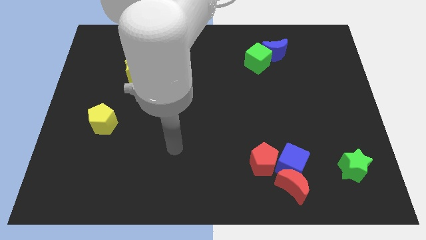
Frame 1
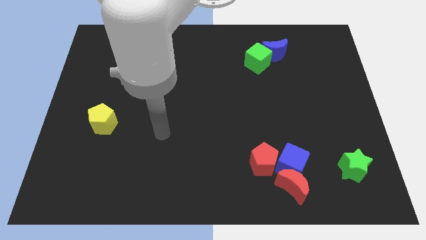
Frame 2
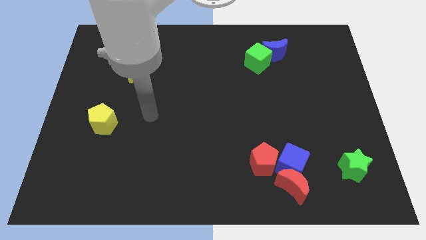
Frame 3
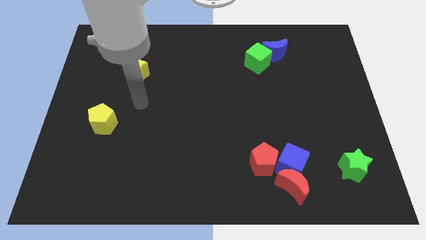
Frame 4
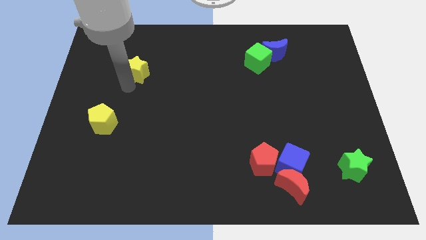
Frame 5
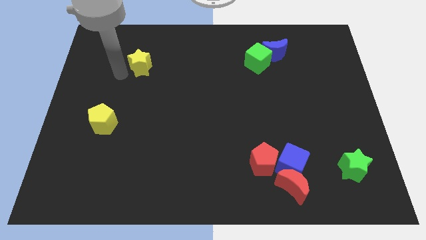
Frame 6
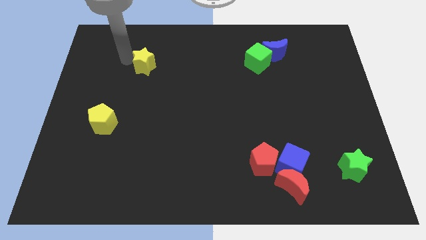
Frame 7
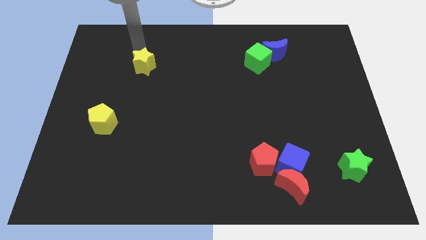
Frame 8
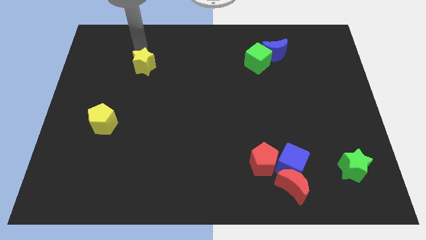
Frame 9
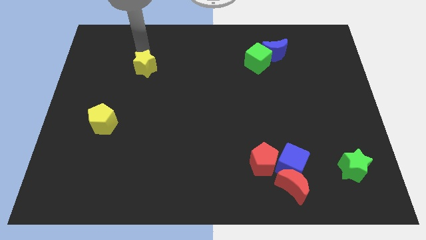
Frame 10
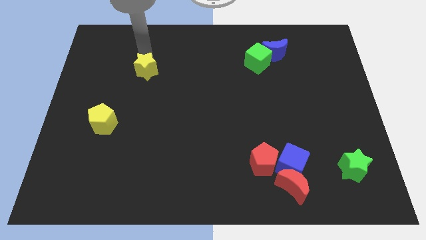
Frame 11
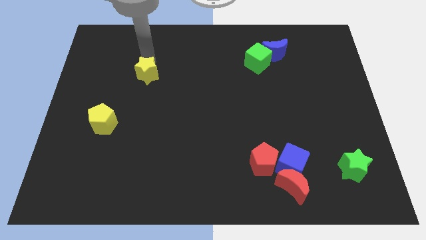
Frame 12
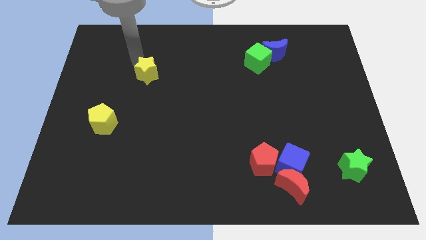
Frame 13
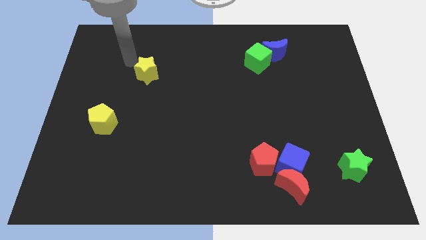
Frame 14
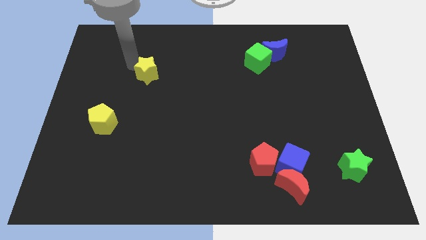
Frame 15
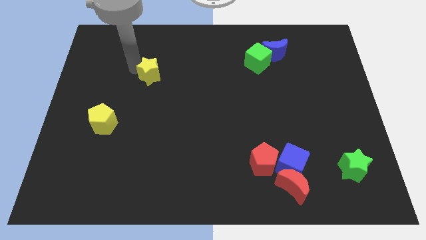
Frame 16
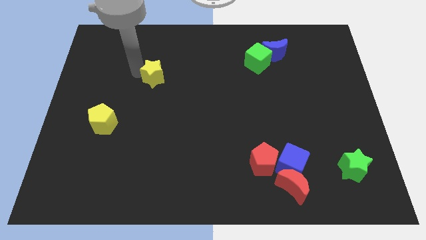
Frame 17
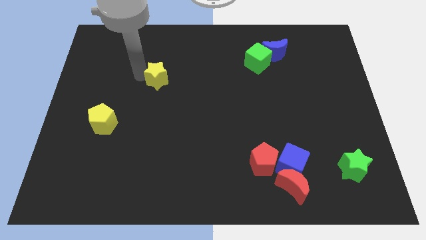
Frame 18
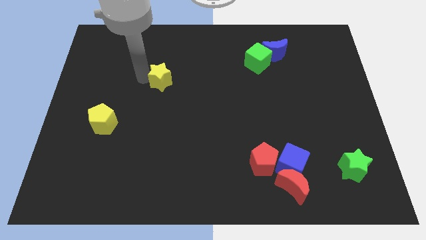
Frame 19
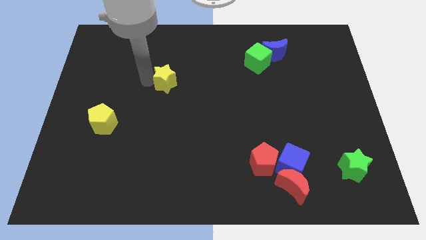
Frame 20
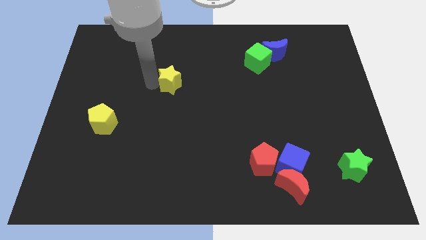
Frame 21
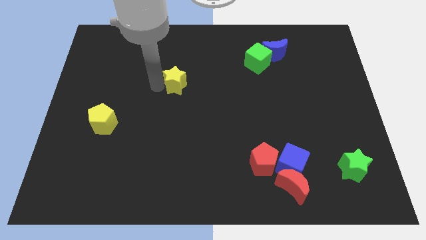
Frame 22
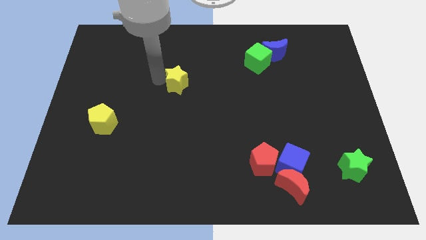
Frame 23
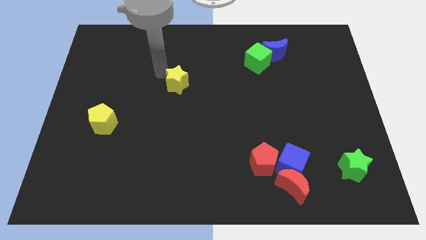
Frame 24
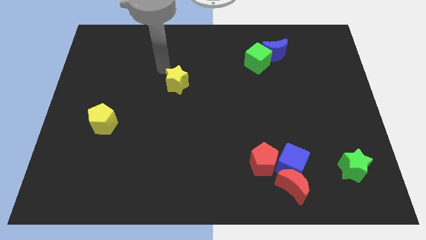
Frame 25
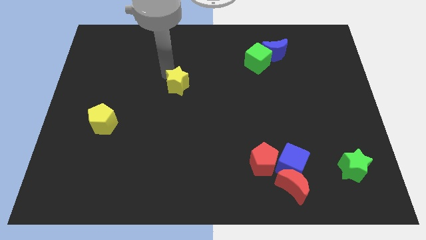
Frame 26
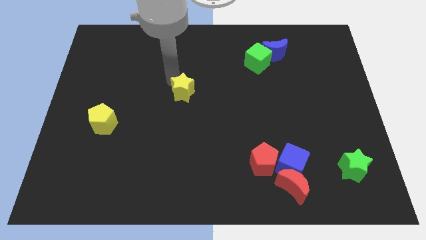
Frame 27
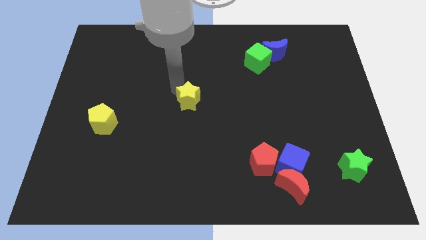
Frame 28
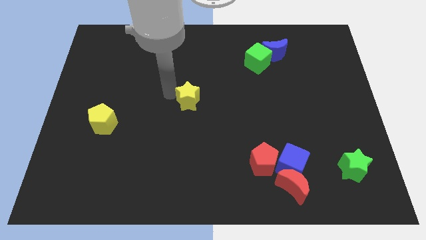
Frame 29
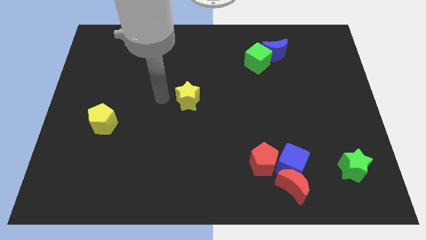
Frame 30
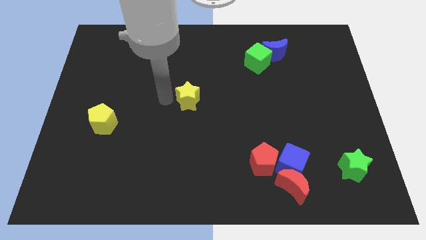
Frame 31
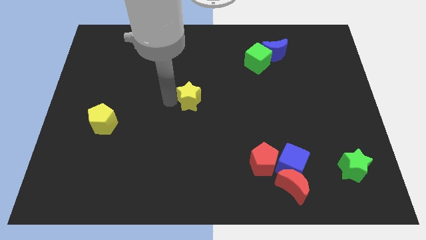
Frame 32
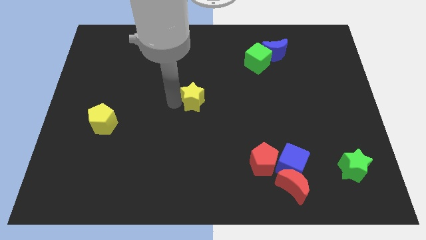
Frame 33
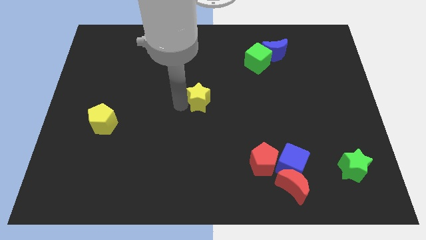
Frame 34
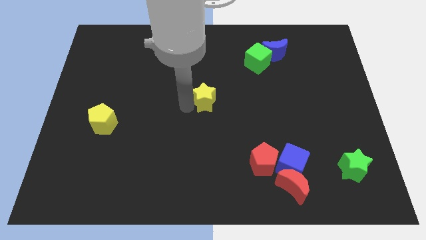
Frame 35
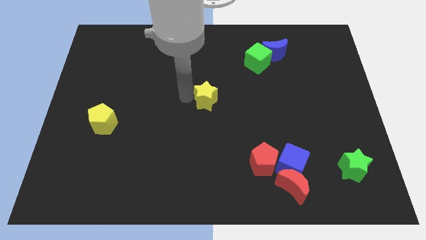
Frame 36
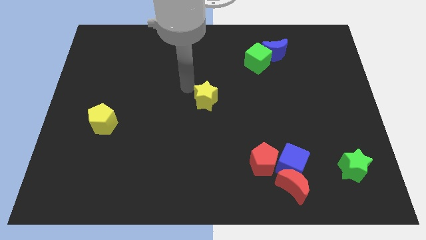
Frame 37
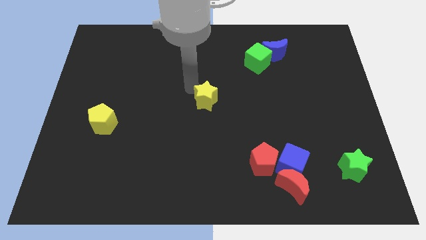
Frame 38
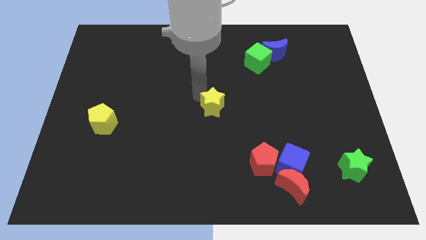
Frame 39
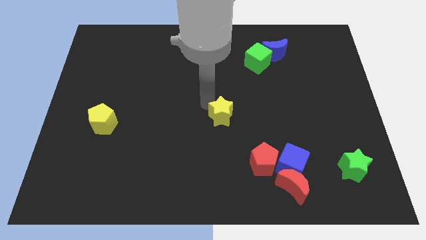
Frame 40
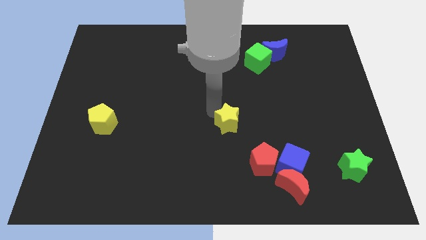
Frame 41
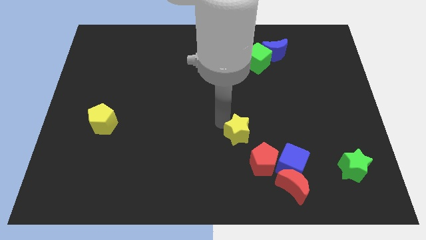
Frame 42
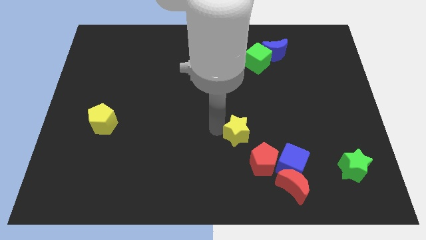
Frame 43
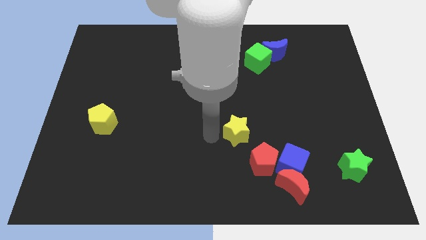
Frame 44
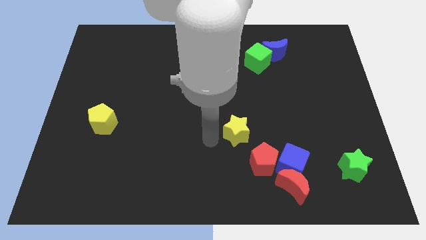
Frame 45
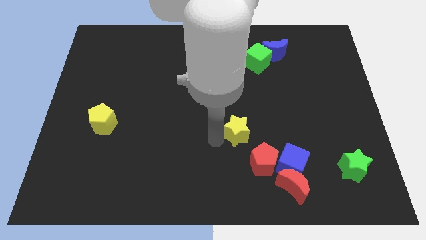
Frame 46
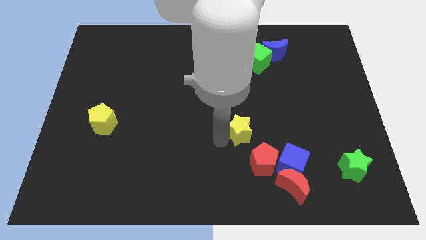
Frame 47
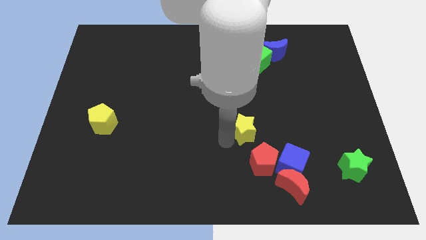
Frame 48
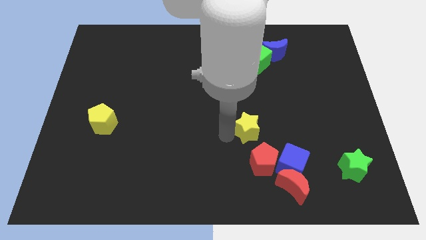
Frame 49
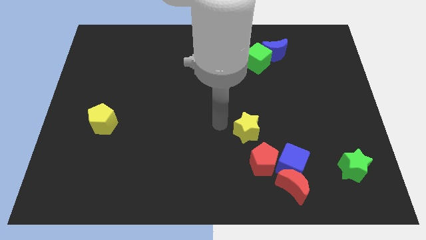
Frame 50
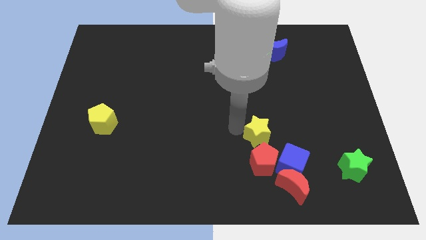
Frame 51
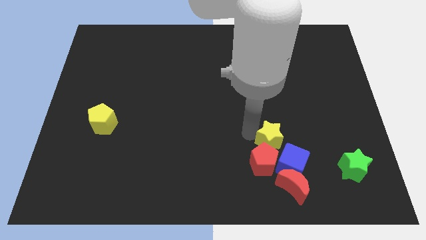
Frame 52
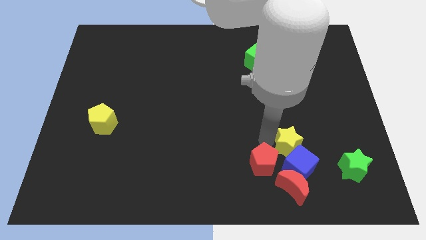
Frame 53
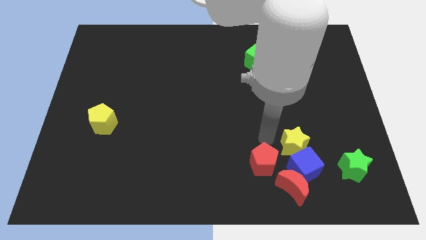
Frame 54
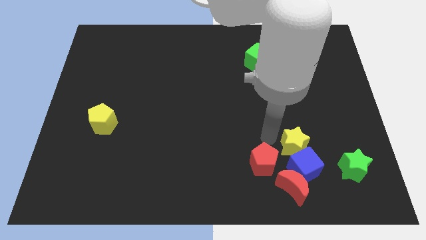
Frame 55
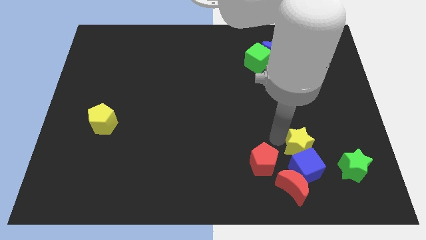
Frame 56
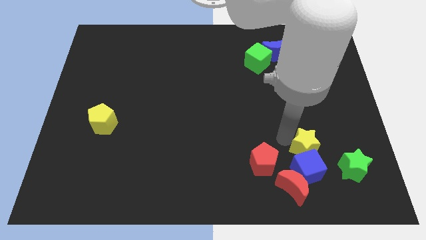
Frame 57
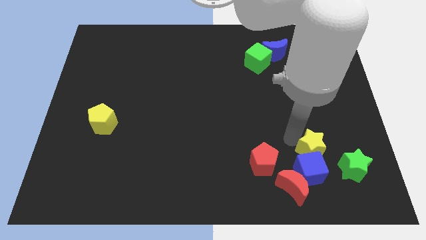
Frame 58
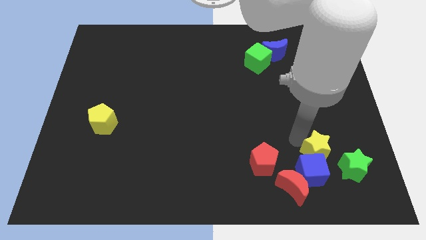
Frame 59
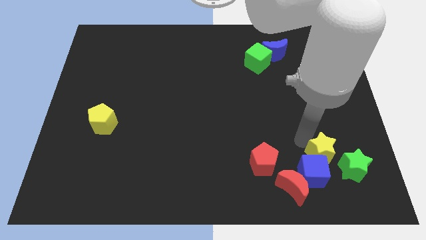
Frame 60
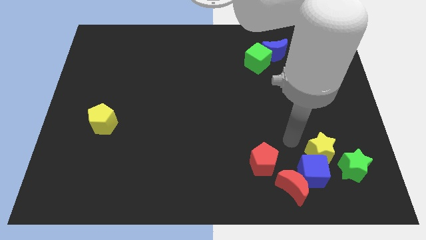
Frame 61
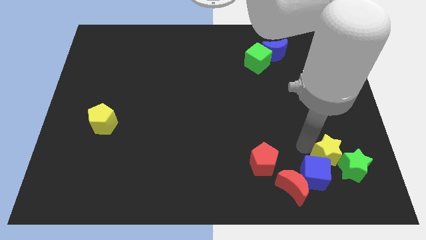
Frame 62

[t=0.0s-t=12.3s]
push the yellow star close to the green star
